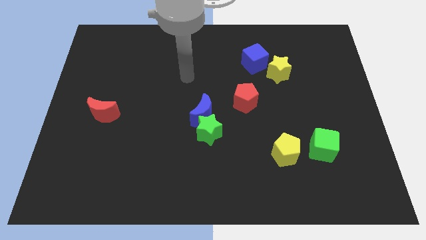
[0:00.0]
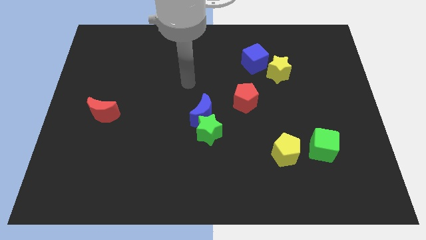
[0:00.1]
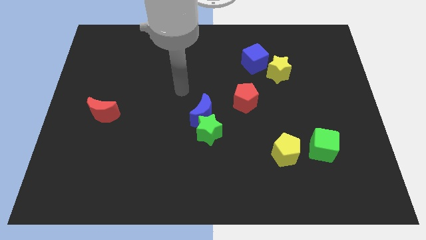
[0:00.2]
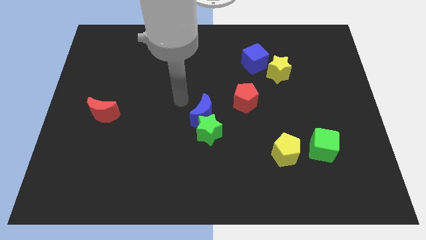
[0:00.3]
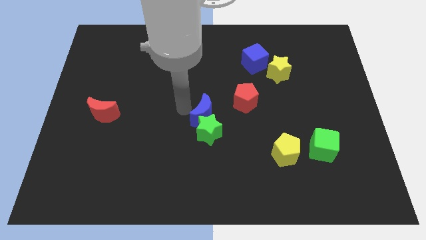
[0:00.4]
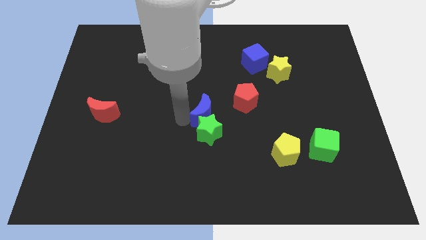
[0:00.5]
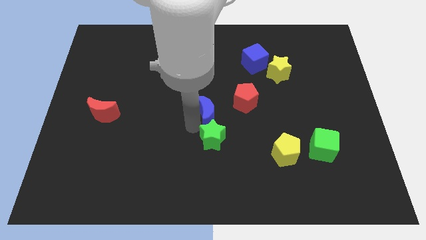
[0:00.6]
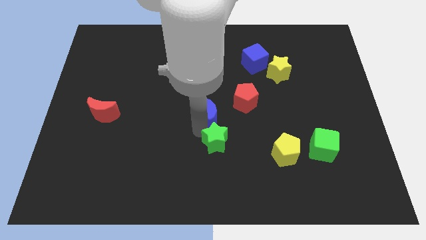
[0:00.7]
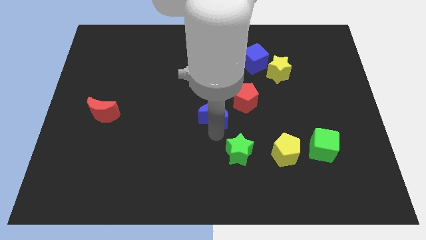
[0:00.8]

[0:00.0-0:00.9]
move the blue moon away from the green star

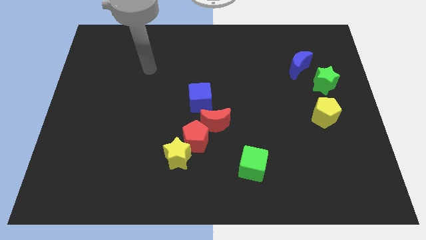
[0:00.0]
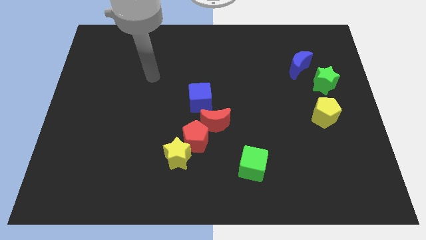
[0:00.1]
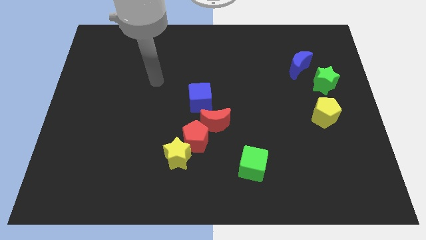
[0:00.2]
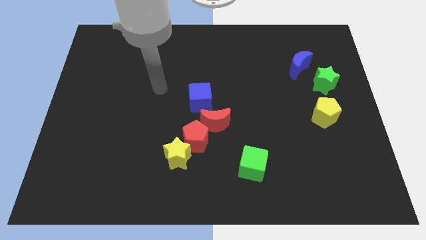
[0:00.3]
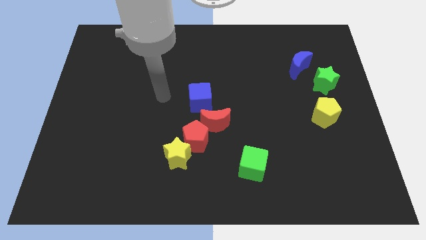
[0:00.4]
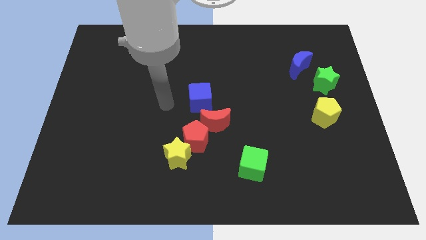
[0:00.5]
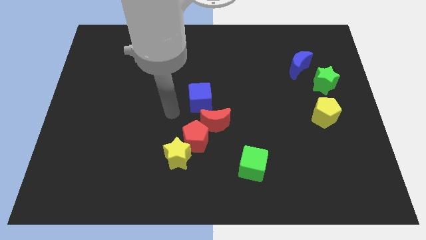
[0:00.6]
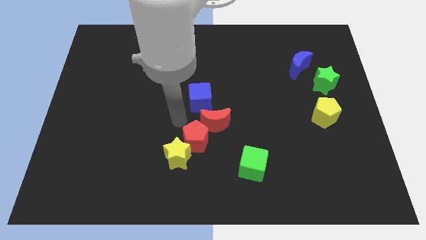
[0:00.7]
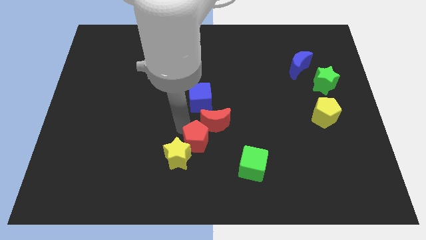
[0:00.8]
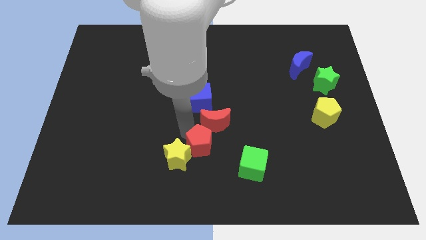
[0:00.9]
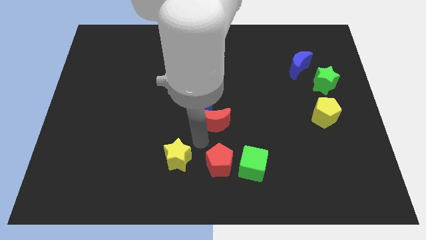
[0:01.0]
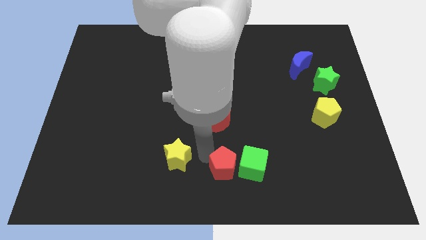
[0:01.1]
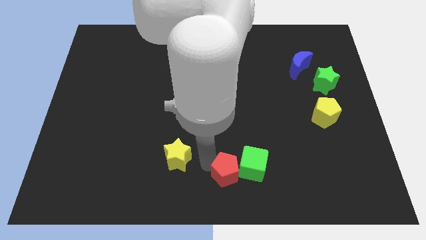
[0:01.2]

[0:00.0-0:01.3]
pull the yellow star apart from the red pentagon

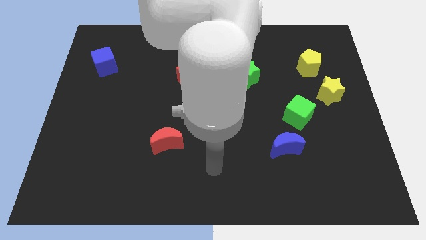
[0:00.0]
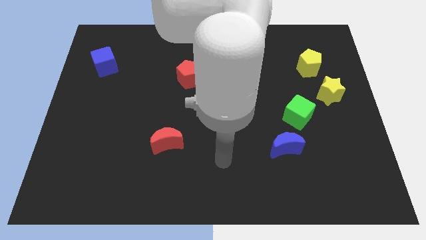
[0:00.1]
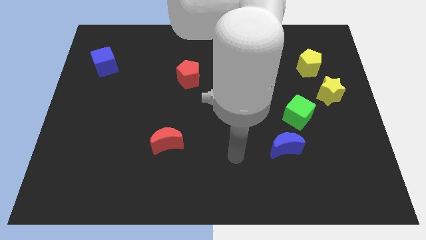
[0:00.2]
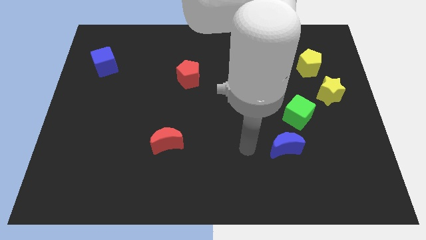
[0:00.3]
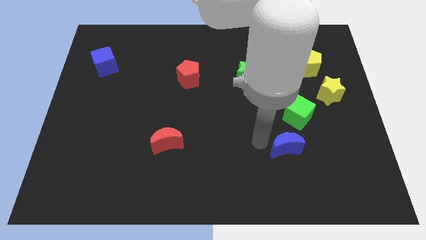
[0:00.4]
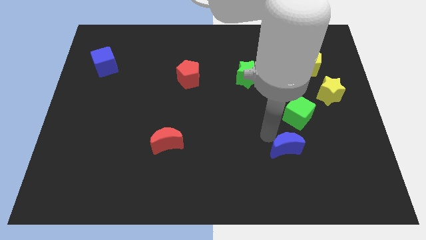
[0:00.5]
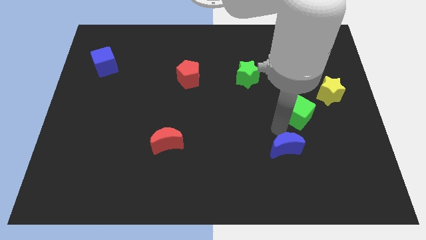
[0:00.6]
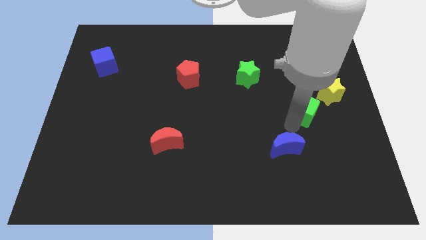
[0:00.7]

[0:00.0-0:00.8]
move the blue moon away from the green cube

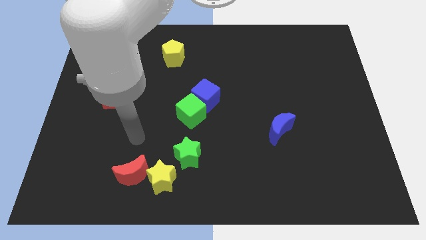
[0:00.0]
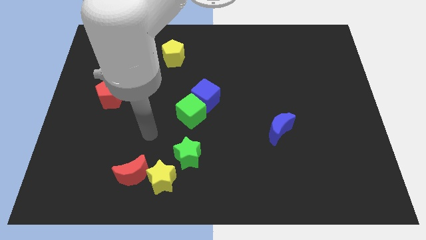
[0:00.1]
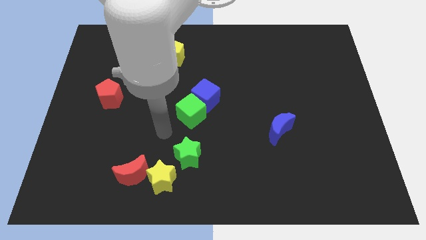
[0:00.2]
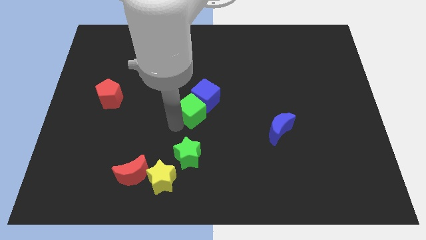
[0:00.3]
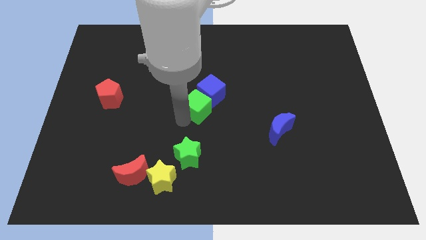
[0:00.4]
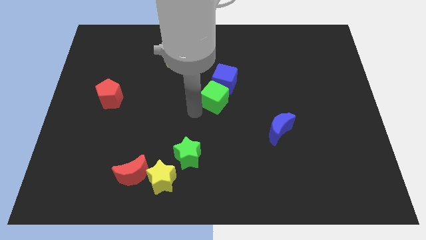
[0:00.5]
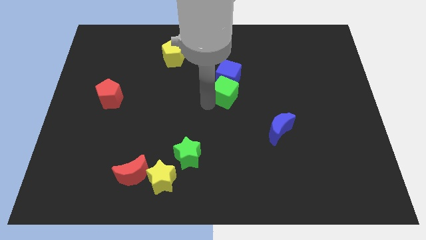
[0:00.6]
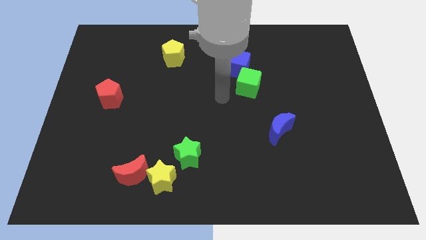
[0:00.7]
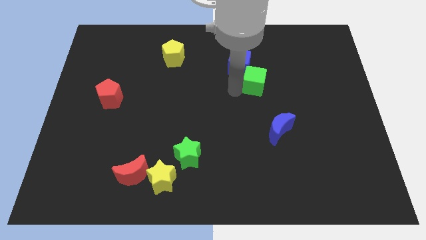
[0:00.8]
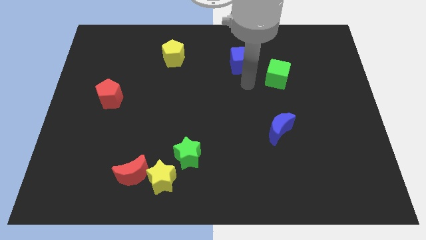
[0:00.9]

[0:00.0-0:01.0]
move the blue cube away from the green cube

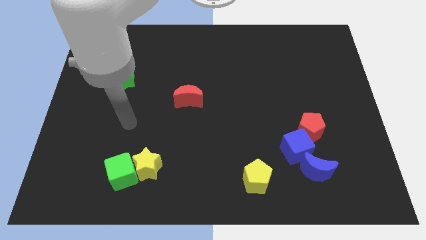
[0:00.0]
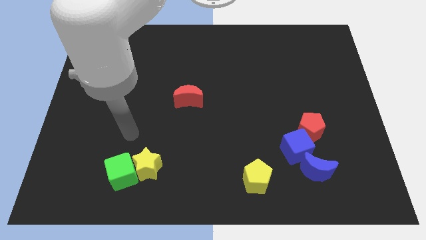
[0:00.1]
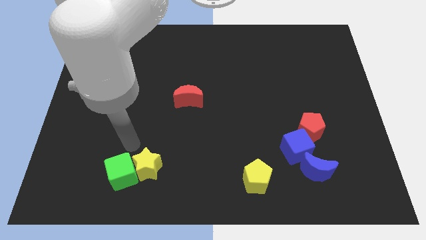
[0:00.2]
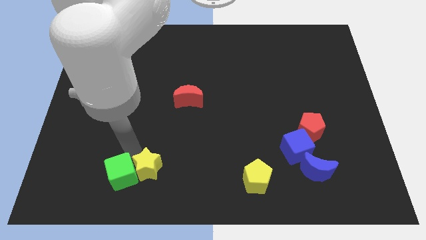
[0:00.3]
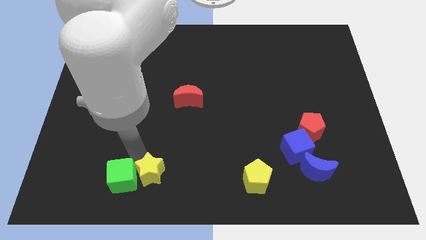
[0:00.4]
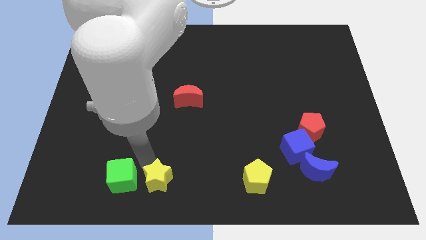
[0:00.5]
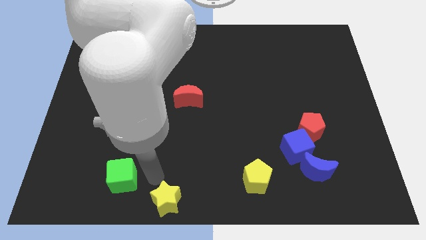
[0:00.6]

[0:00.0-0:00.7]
move the green cube away from the yellow star

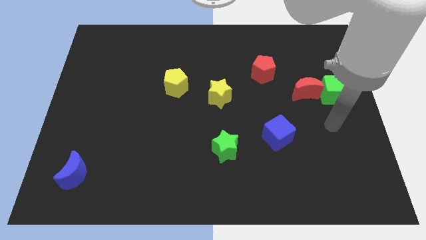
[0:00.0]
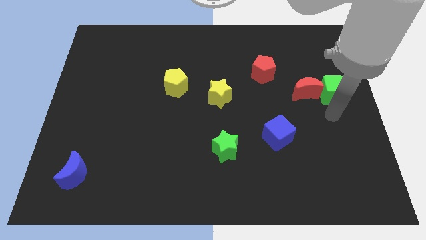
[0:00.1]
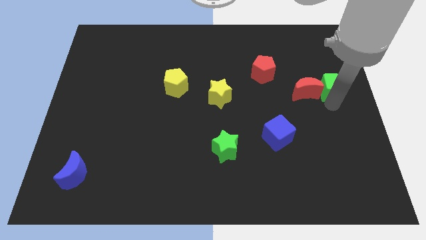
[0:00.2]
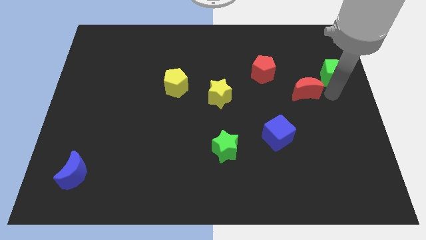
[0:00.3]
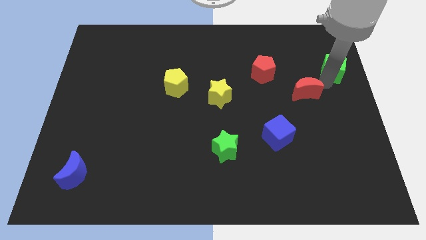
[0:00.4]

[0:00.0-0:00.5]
separate the red moon from the green cube

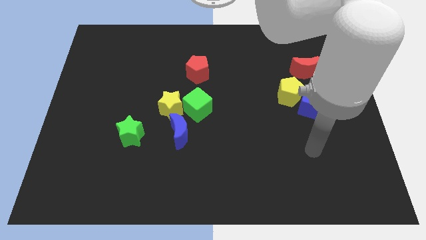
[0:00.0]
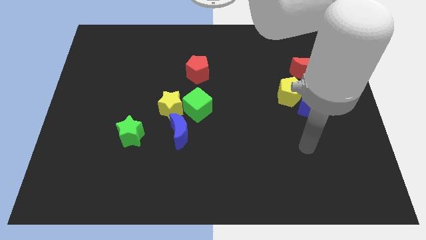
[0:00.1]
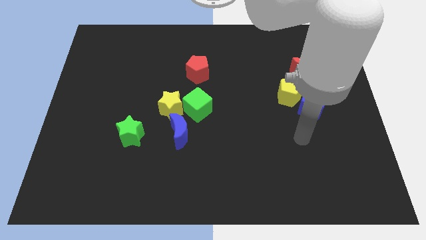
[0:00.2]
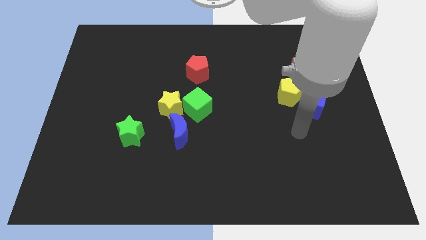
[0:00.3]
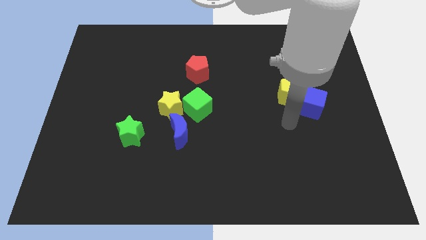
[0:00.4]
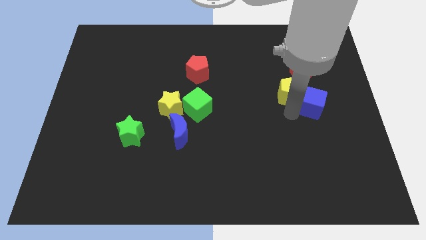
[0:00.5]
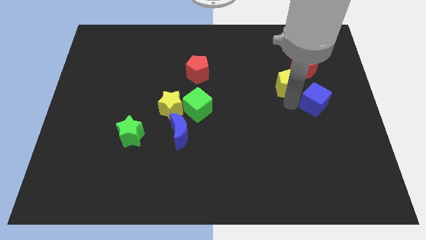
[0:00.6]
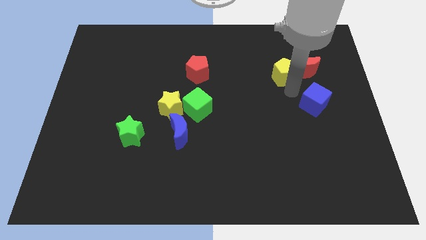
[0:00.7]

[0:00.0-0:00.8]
pull the blue cube apart from the yellow pentagon

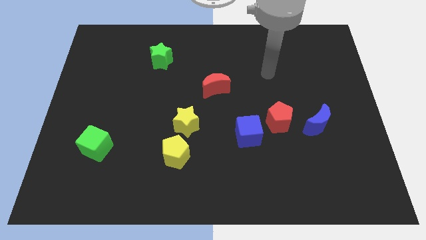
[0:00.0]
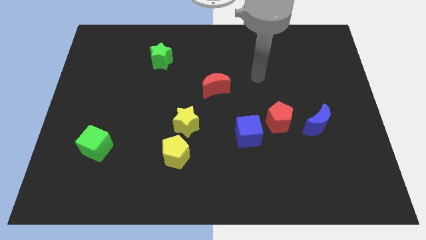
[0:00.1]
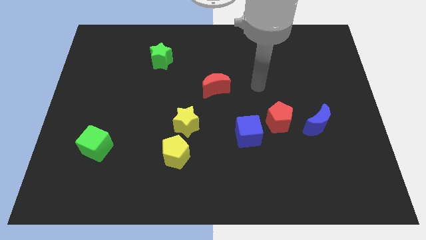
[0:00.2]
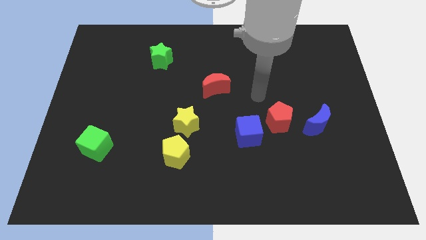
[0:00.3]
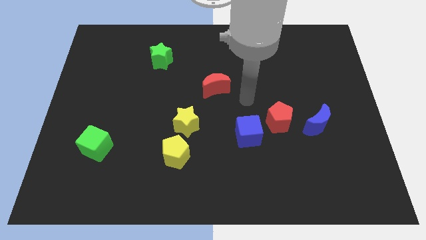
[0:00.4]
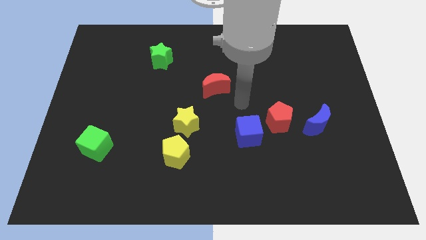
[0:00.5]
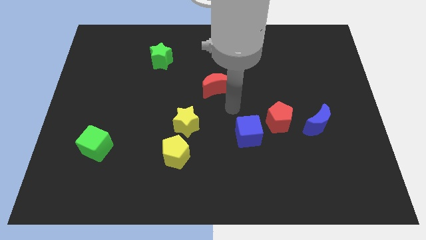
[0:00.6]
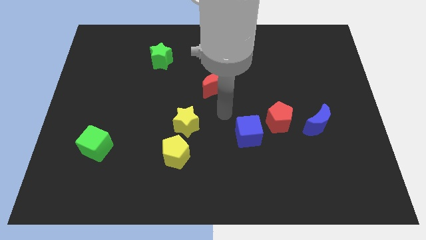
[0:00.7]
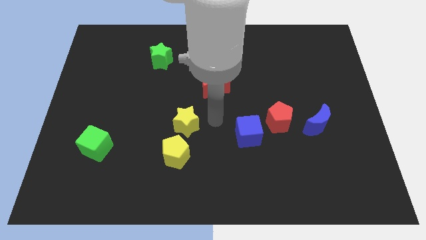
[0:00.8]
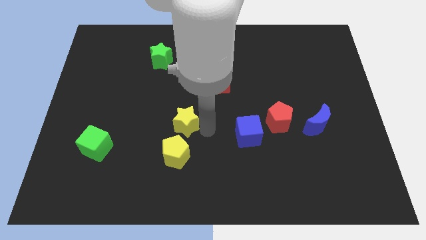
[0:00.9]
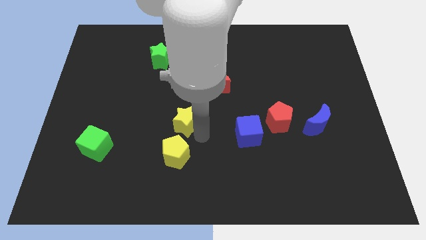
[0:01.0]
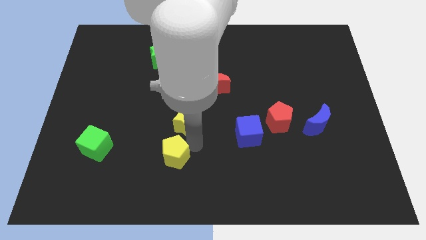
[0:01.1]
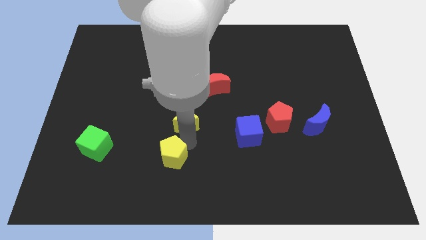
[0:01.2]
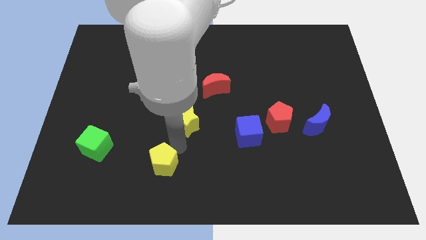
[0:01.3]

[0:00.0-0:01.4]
move the yellow star away from the yellow pentagon

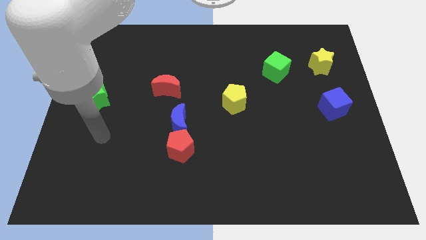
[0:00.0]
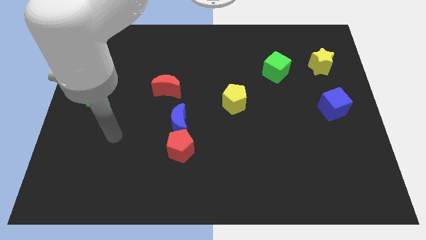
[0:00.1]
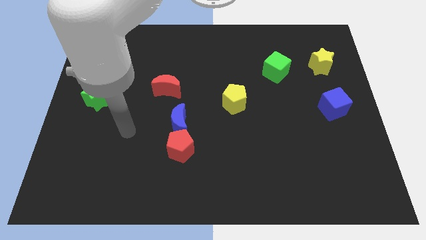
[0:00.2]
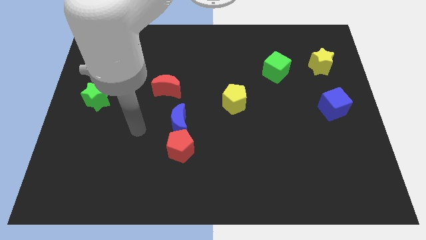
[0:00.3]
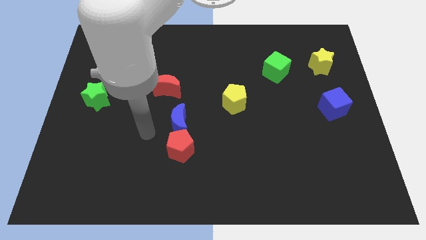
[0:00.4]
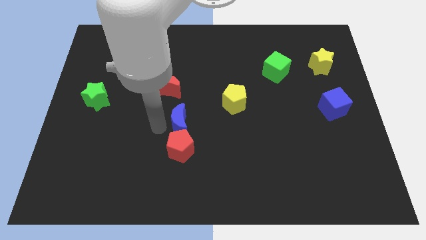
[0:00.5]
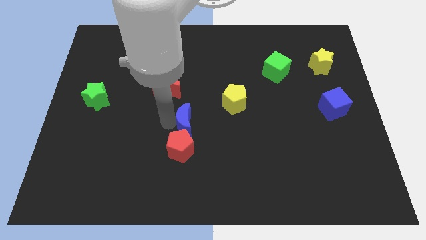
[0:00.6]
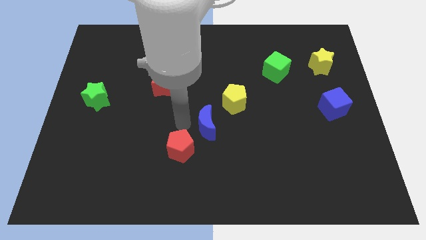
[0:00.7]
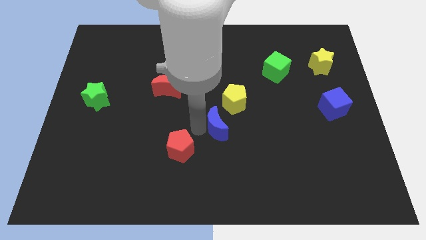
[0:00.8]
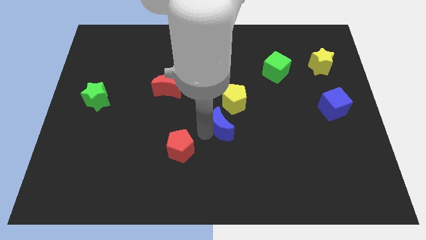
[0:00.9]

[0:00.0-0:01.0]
pull the red pentagon apart from the blue moon

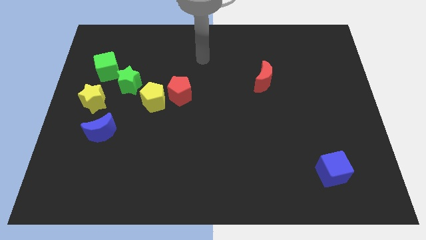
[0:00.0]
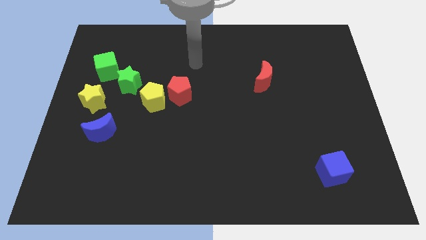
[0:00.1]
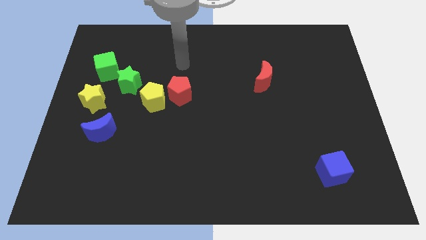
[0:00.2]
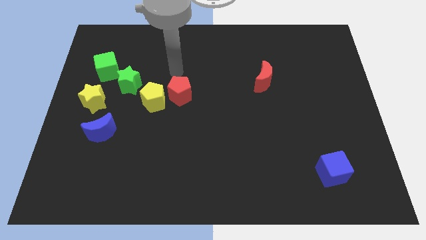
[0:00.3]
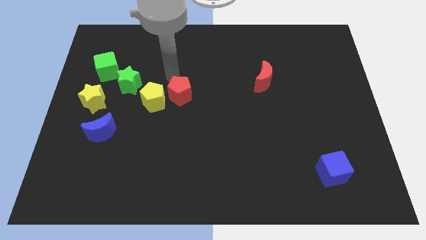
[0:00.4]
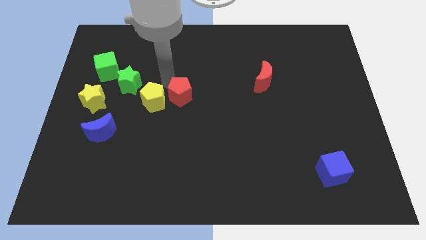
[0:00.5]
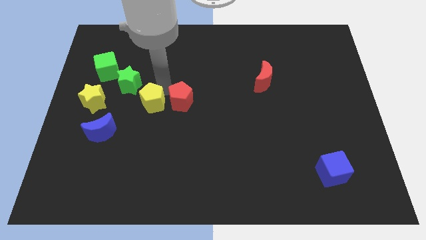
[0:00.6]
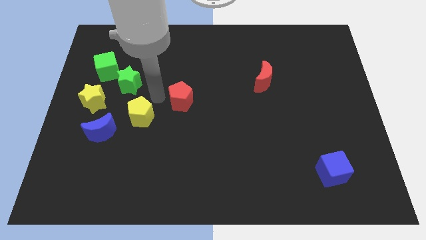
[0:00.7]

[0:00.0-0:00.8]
move the red pentagon away from the yellow pentagon
